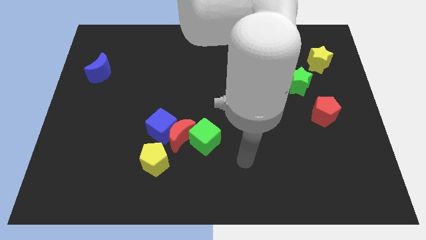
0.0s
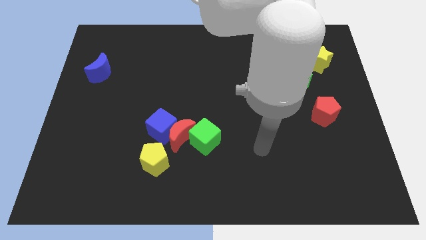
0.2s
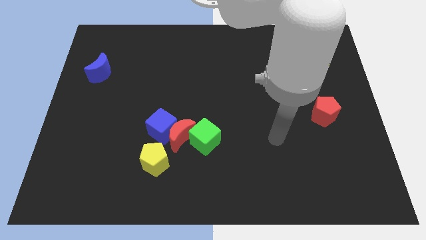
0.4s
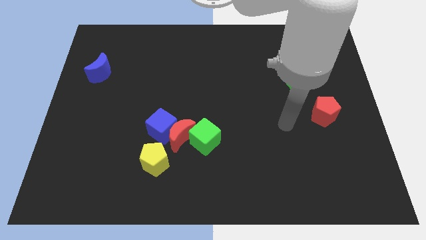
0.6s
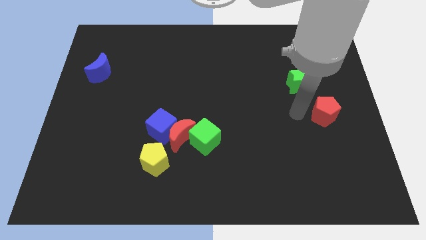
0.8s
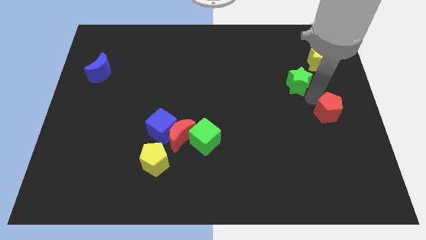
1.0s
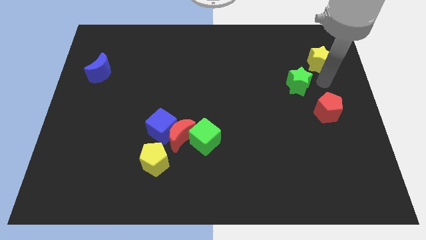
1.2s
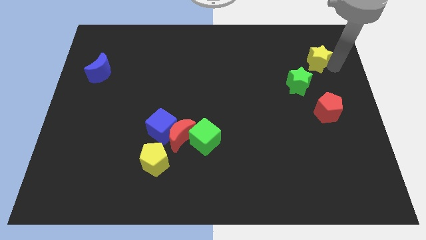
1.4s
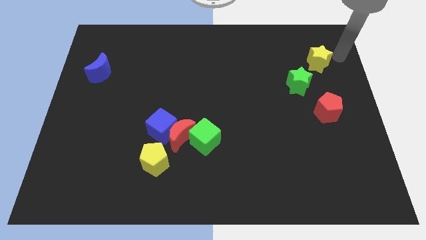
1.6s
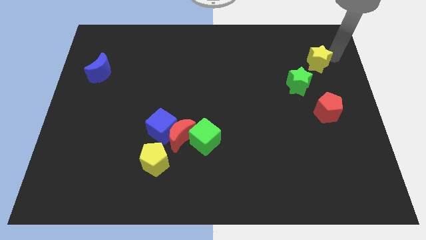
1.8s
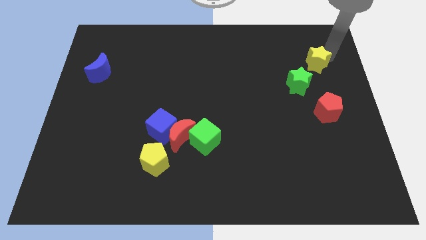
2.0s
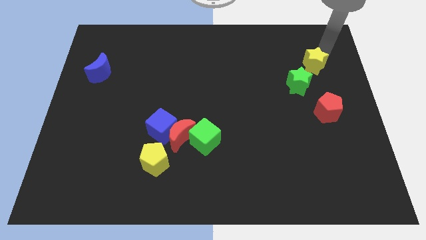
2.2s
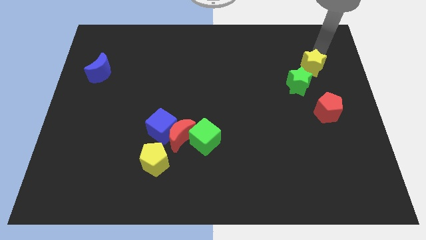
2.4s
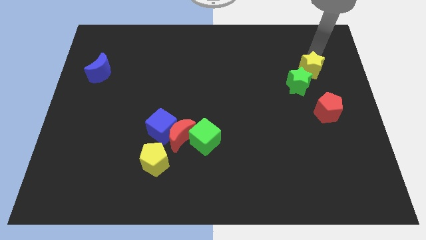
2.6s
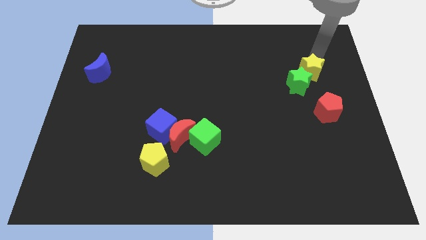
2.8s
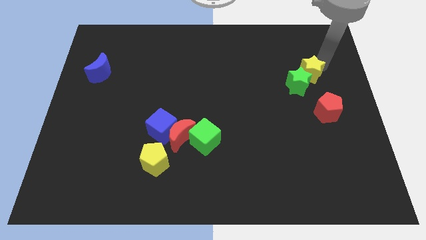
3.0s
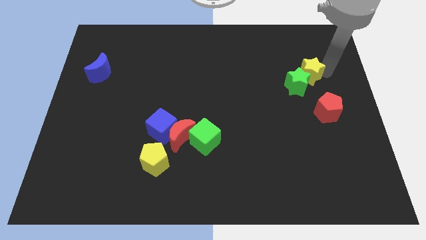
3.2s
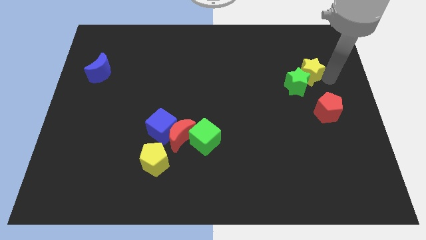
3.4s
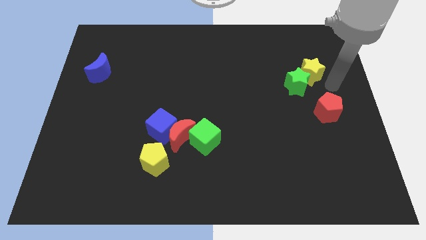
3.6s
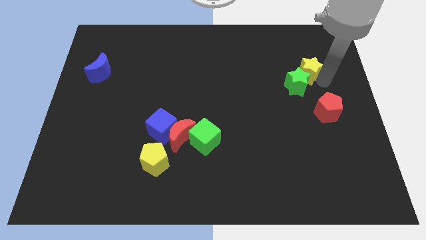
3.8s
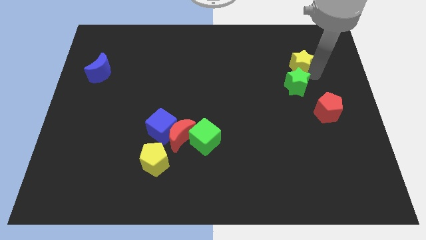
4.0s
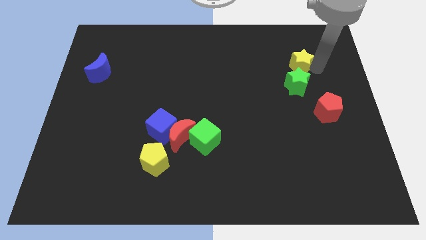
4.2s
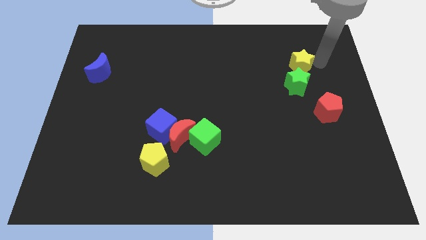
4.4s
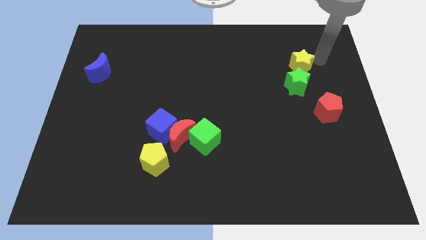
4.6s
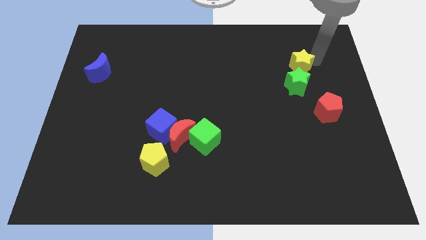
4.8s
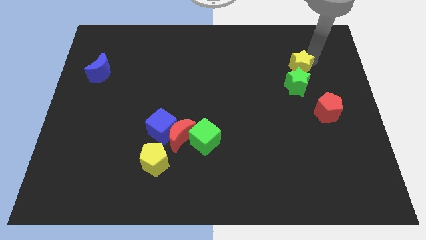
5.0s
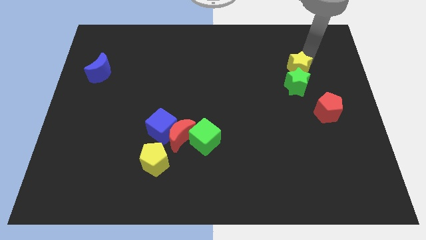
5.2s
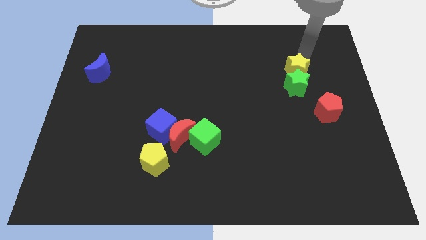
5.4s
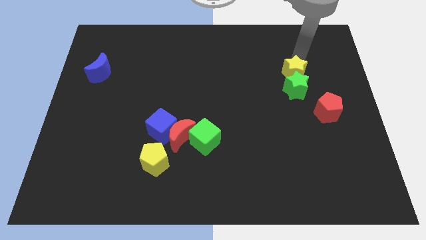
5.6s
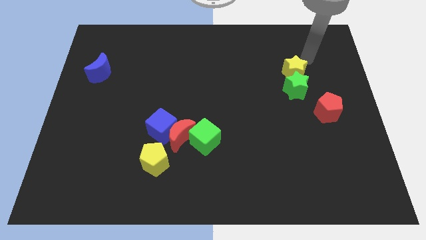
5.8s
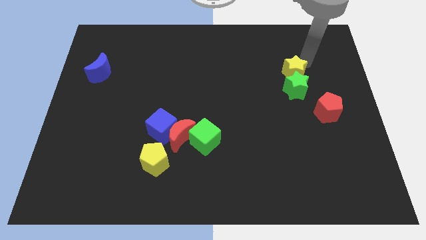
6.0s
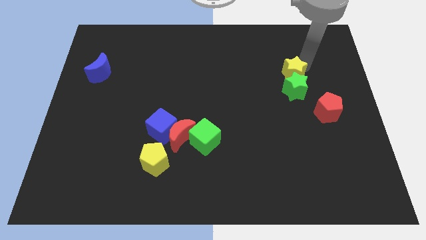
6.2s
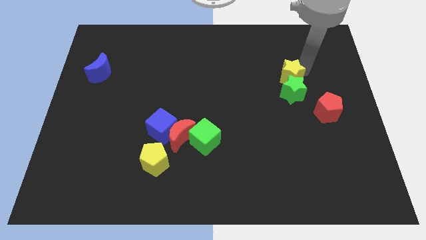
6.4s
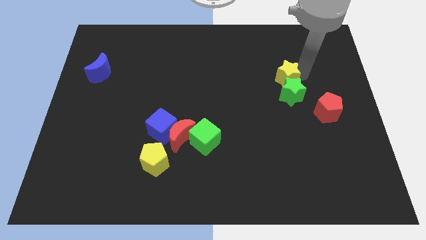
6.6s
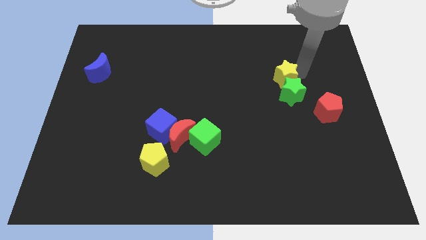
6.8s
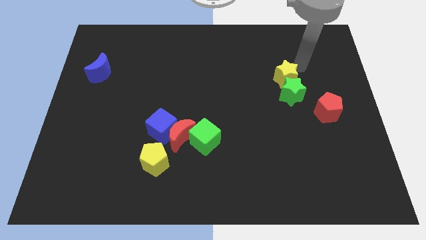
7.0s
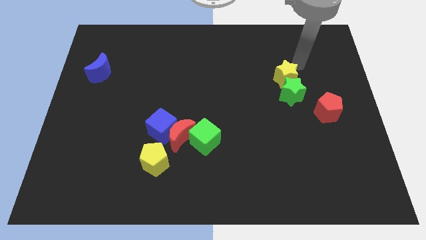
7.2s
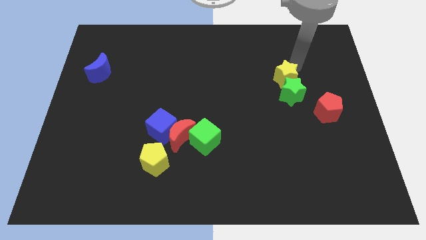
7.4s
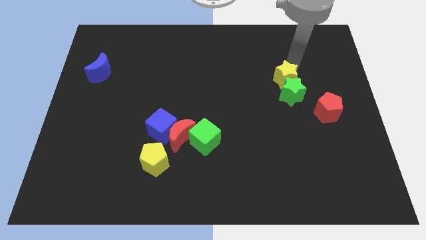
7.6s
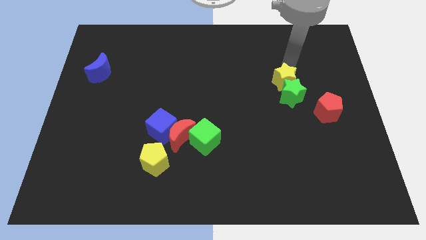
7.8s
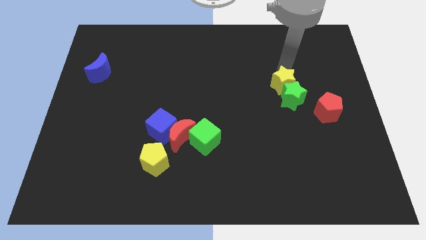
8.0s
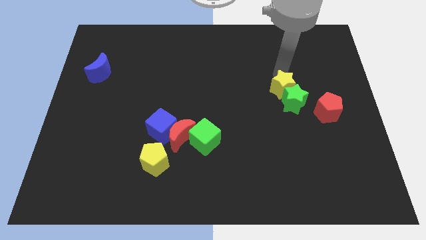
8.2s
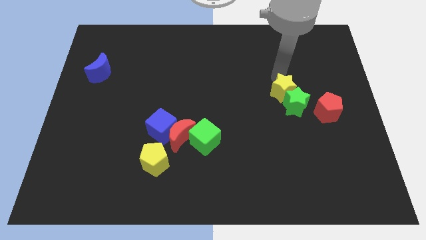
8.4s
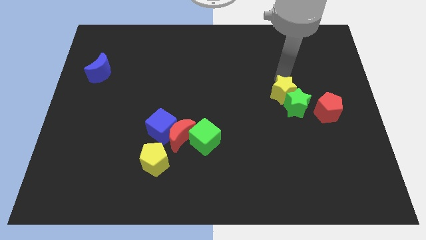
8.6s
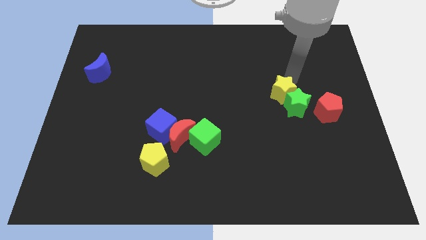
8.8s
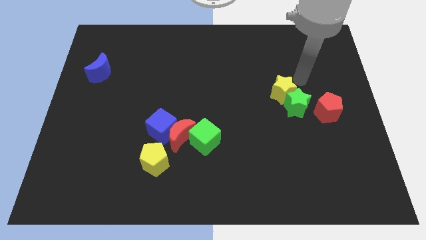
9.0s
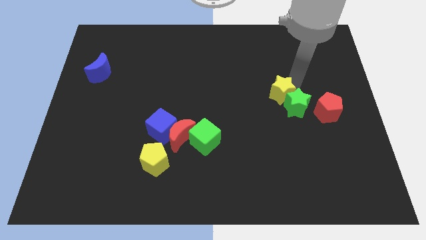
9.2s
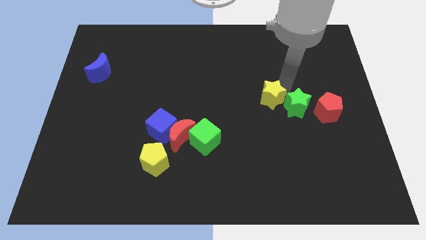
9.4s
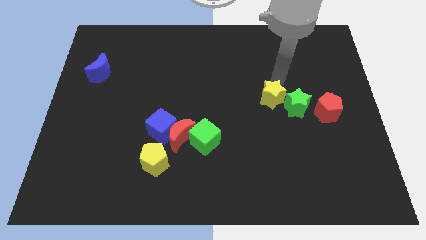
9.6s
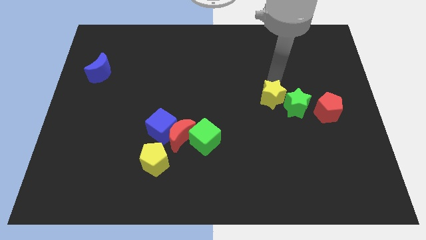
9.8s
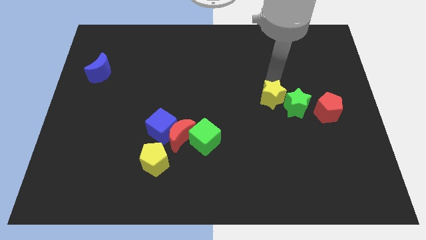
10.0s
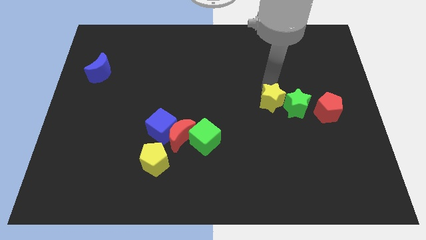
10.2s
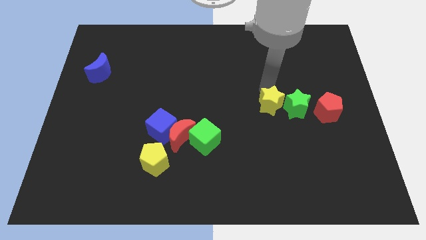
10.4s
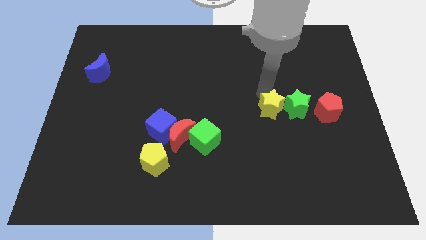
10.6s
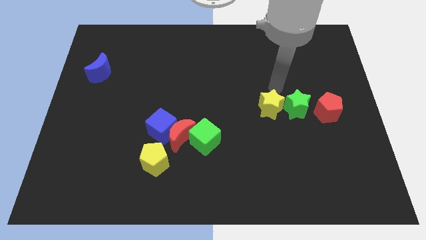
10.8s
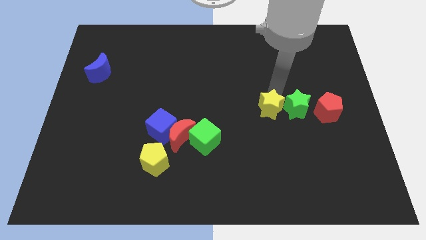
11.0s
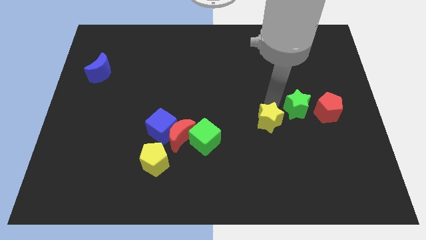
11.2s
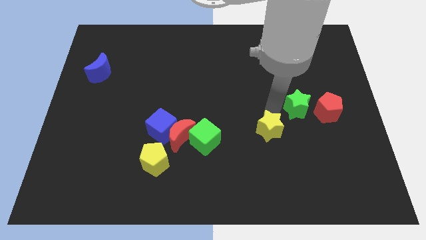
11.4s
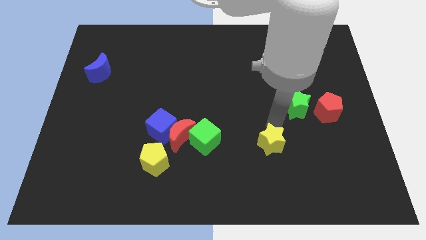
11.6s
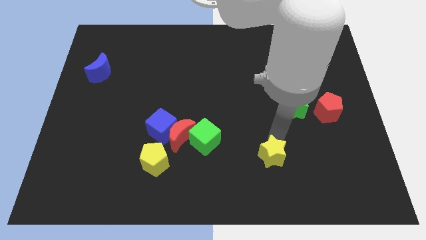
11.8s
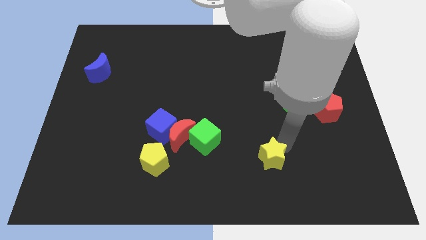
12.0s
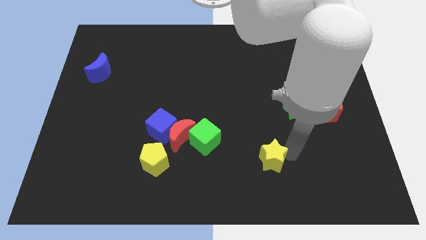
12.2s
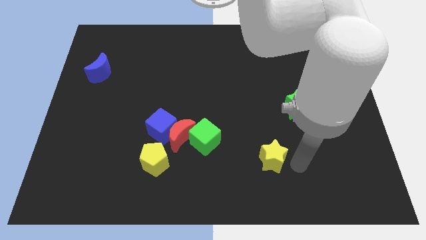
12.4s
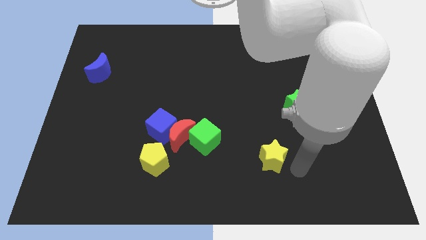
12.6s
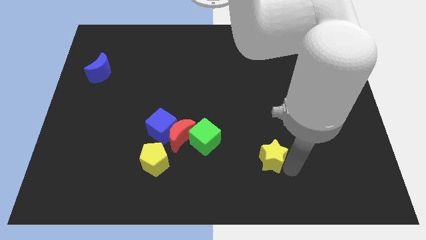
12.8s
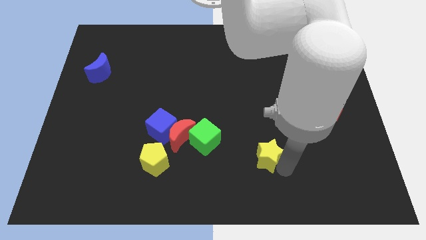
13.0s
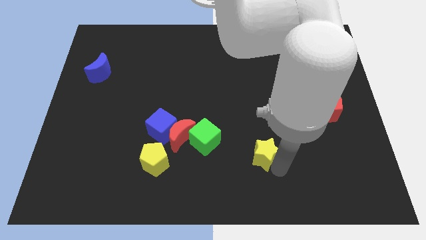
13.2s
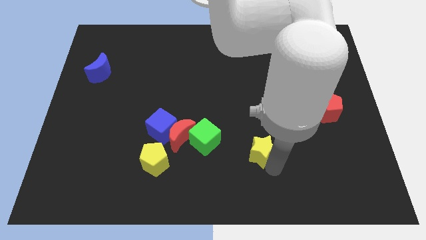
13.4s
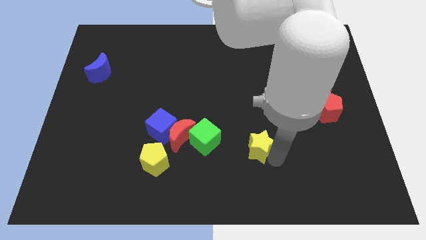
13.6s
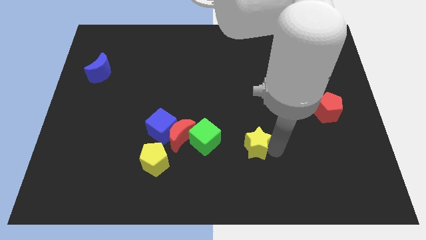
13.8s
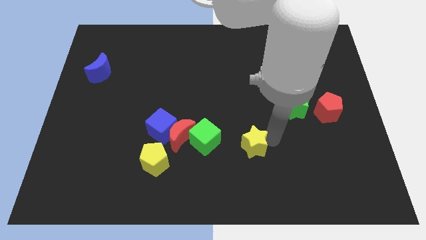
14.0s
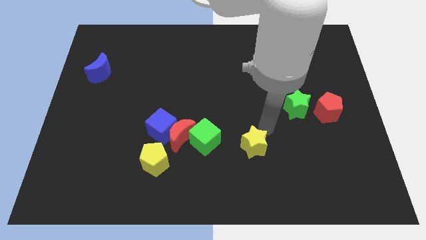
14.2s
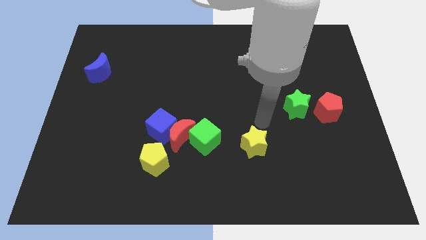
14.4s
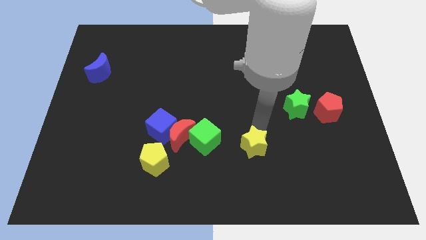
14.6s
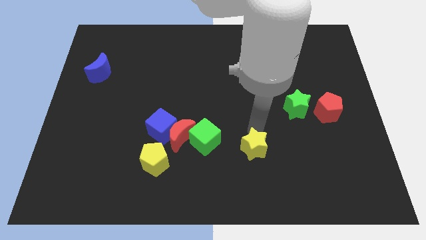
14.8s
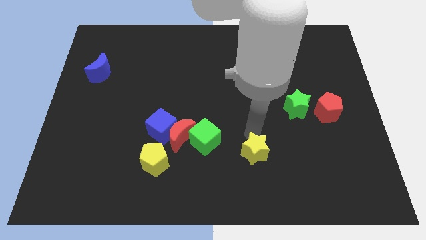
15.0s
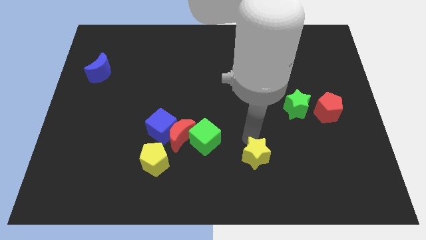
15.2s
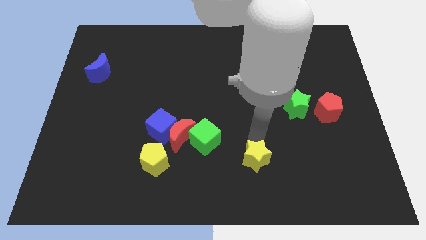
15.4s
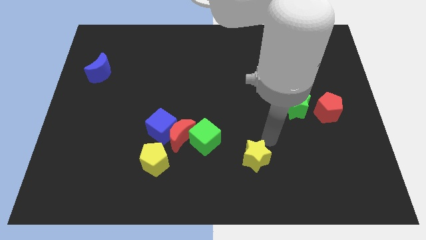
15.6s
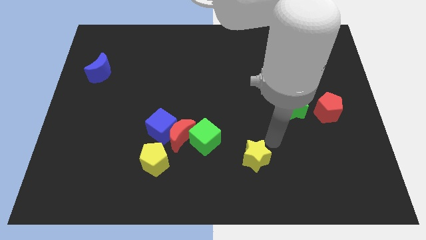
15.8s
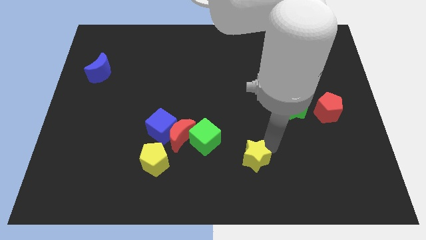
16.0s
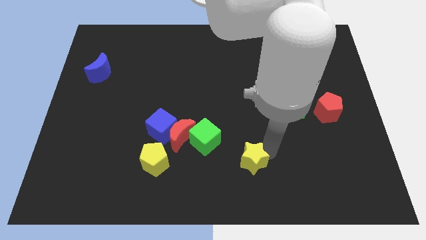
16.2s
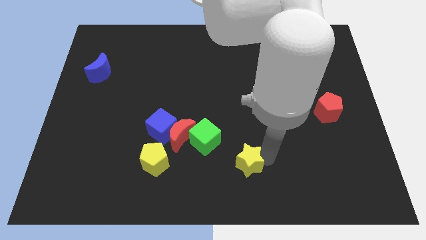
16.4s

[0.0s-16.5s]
slide the yellow star to the bottom side
